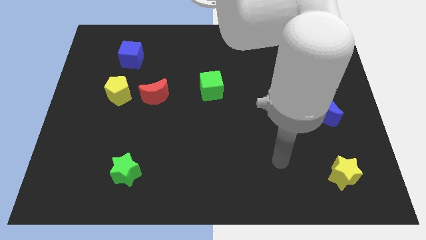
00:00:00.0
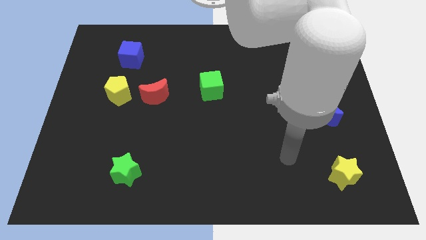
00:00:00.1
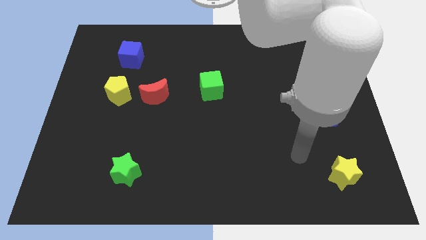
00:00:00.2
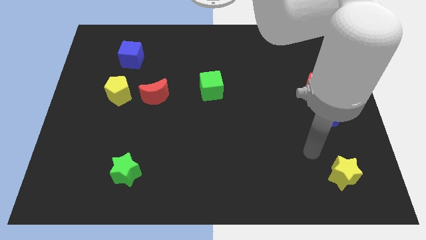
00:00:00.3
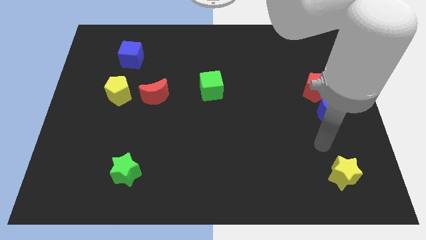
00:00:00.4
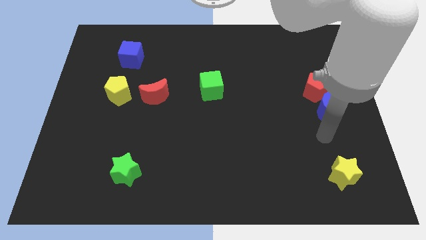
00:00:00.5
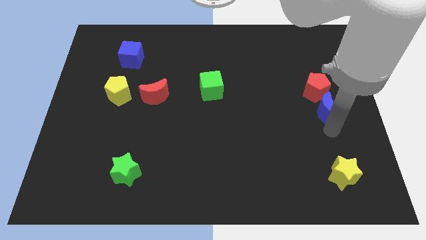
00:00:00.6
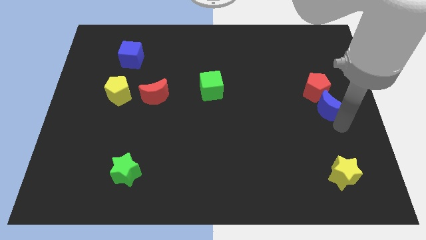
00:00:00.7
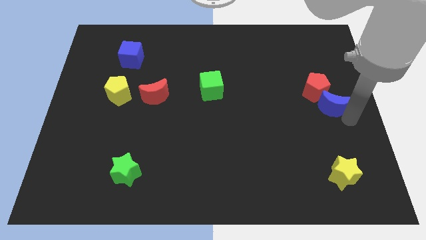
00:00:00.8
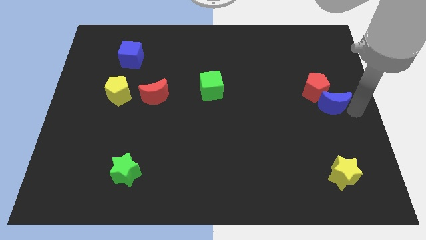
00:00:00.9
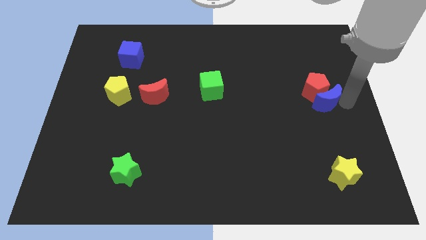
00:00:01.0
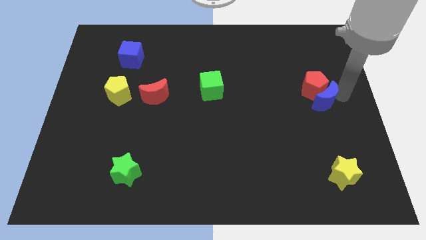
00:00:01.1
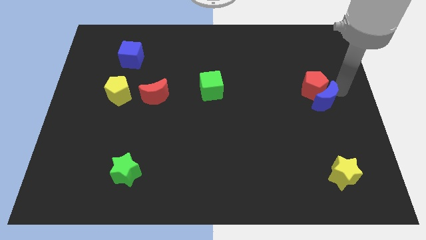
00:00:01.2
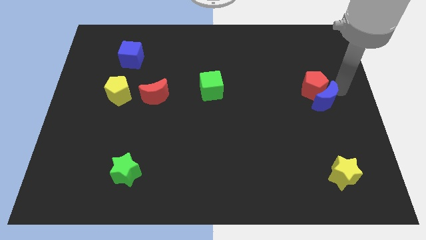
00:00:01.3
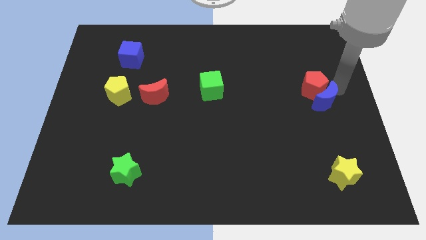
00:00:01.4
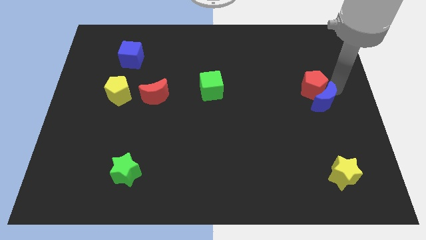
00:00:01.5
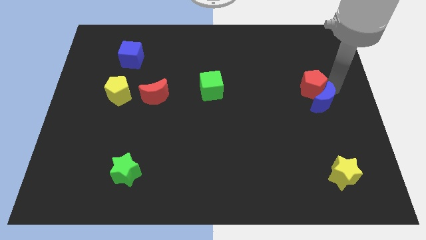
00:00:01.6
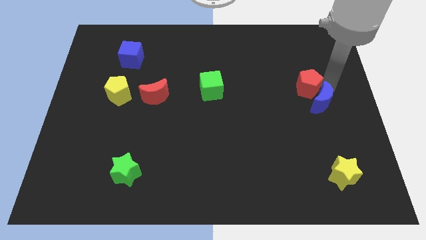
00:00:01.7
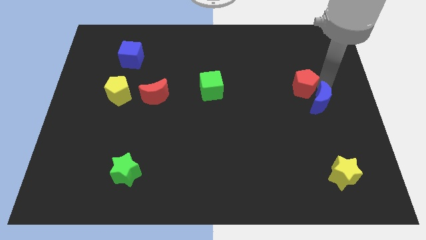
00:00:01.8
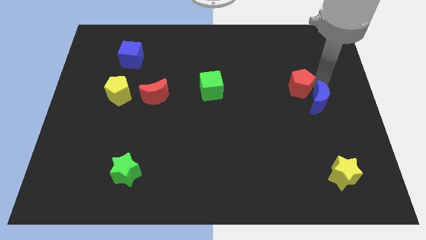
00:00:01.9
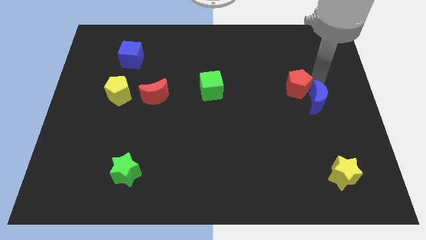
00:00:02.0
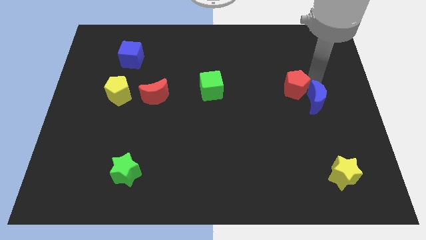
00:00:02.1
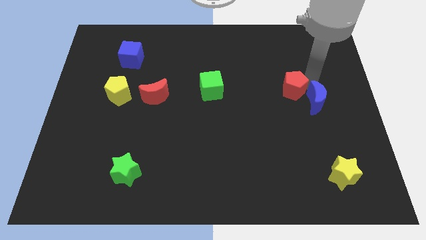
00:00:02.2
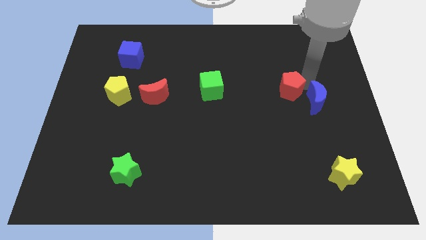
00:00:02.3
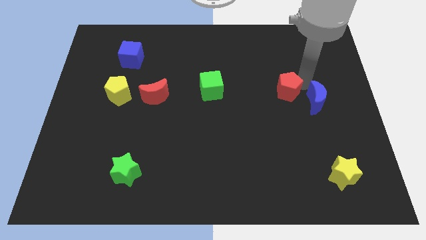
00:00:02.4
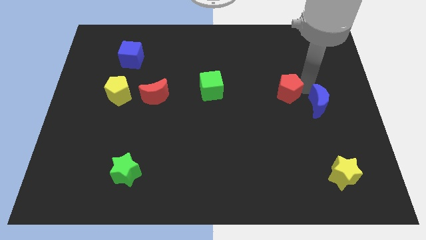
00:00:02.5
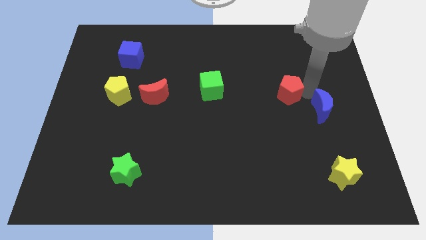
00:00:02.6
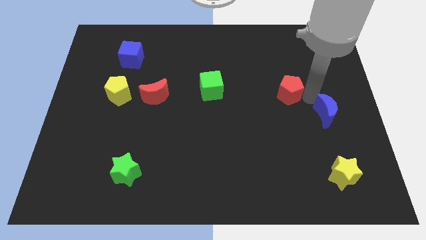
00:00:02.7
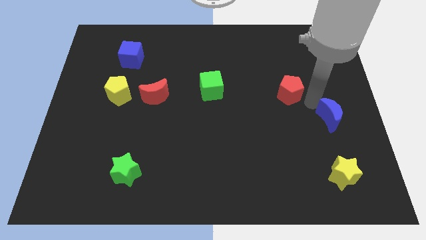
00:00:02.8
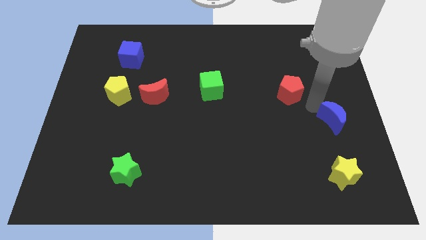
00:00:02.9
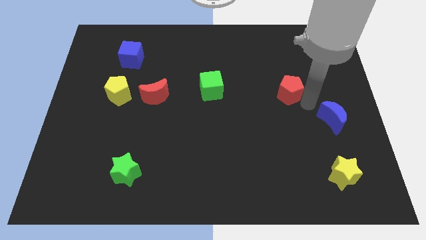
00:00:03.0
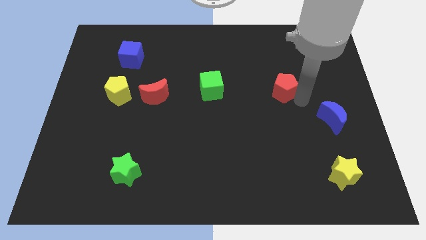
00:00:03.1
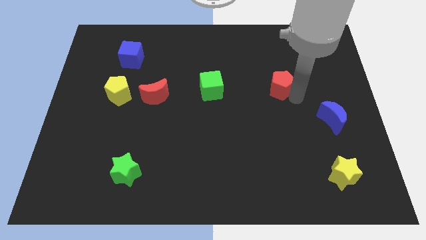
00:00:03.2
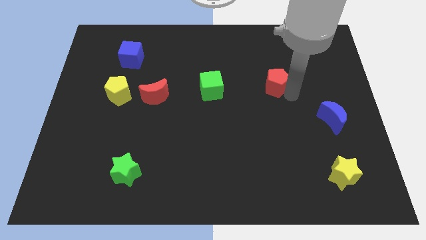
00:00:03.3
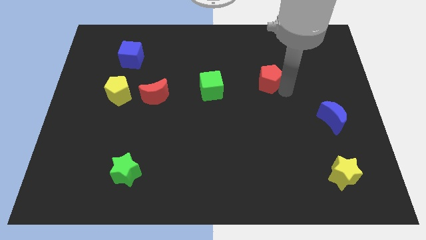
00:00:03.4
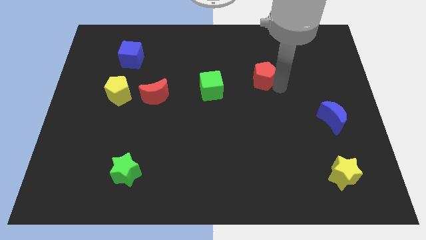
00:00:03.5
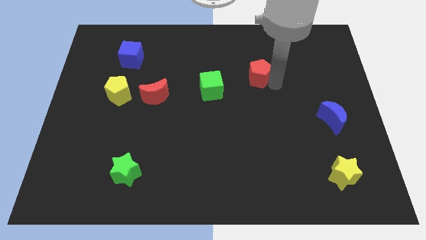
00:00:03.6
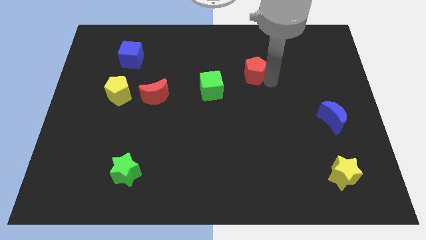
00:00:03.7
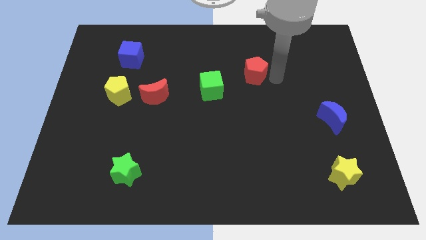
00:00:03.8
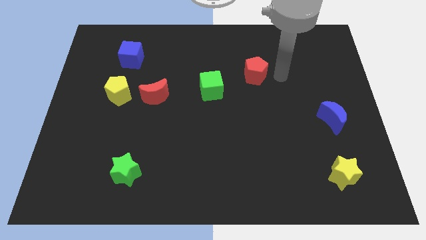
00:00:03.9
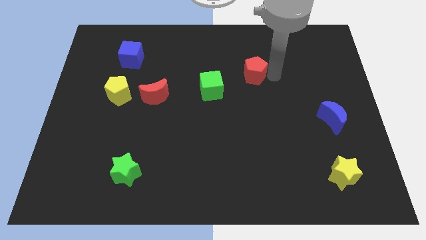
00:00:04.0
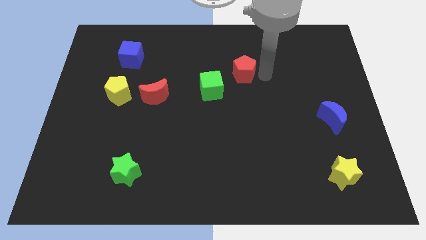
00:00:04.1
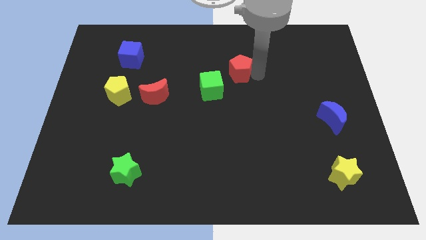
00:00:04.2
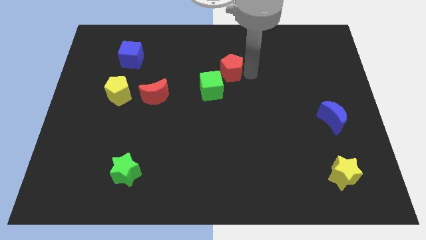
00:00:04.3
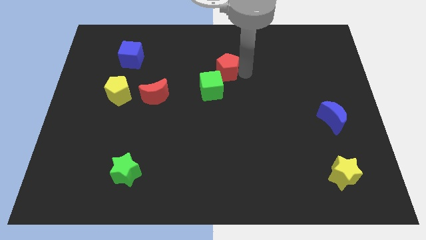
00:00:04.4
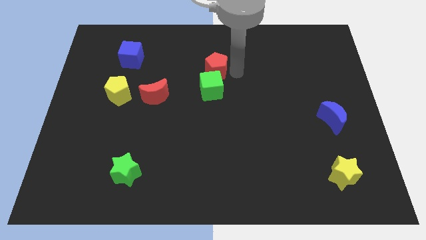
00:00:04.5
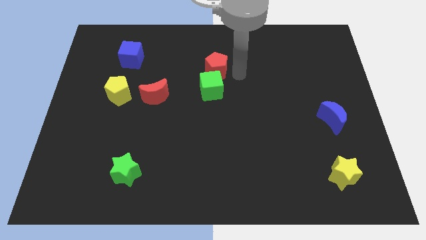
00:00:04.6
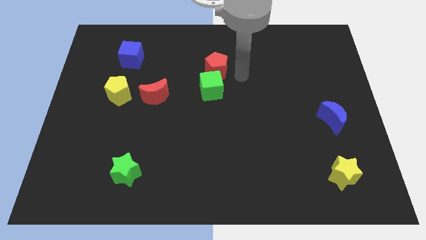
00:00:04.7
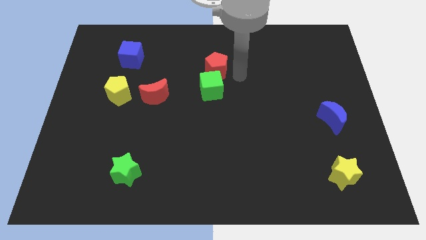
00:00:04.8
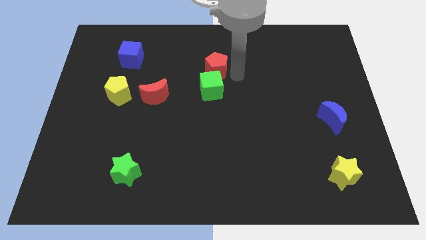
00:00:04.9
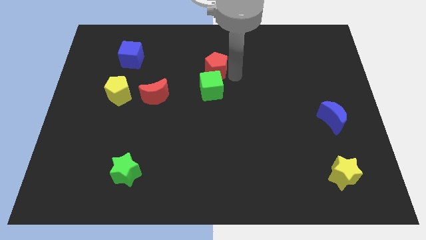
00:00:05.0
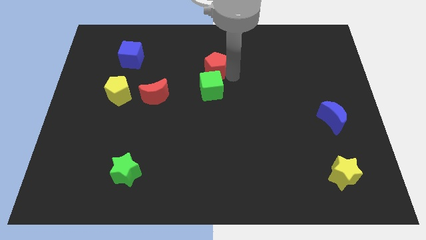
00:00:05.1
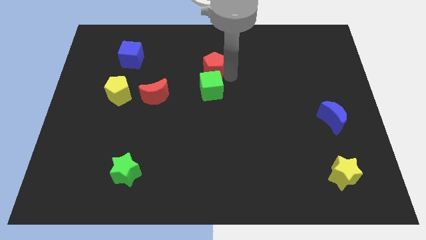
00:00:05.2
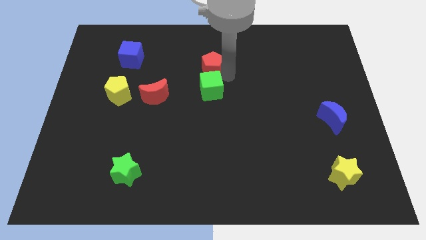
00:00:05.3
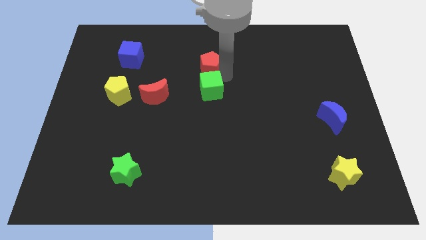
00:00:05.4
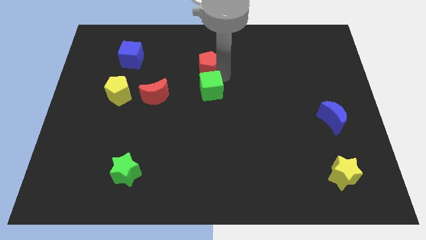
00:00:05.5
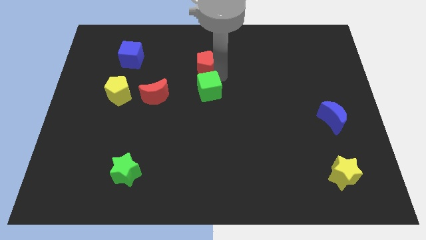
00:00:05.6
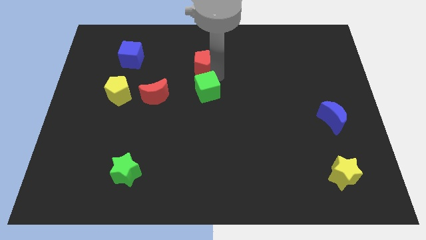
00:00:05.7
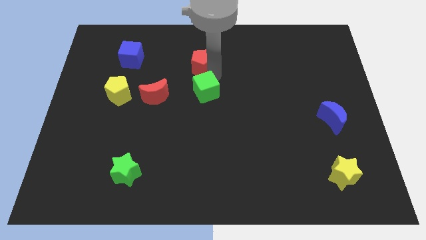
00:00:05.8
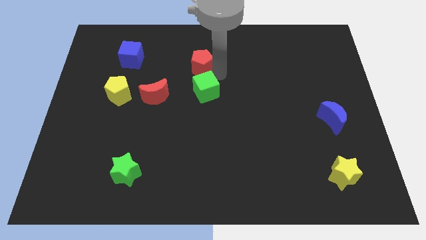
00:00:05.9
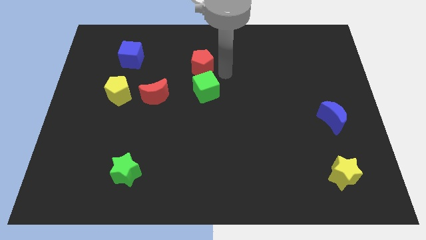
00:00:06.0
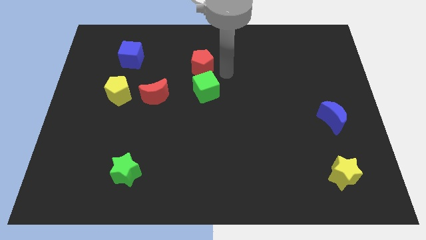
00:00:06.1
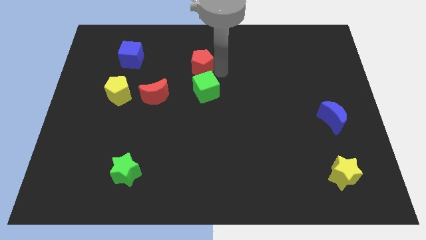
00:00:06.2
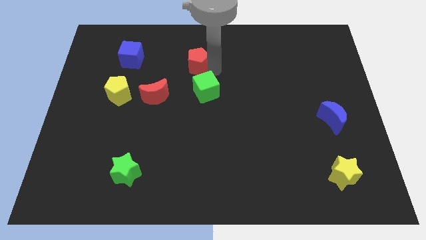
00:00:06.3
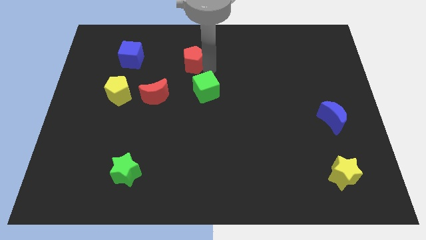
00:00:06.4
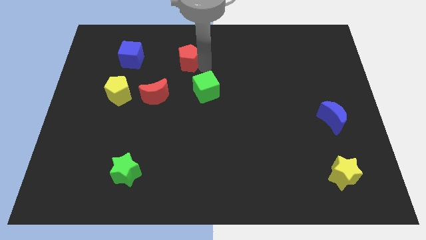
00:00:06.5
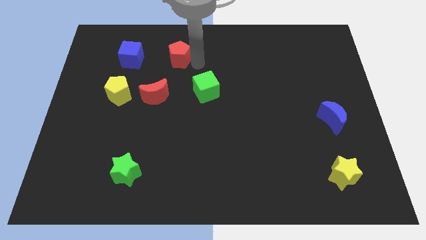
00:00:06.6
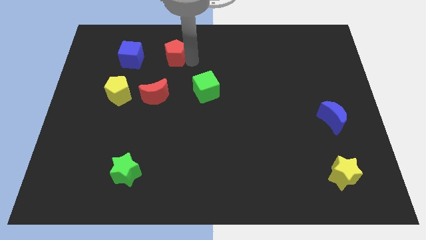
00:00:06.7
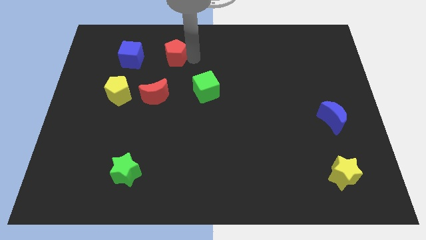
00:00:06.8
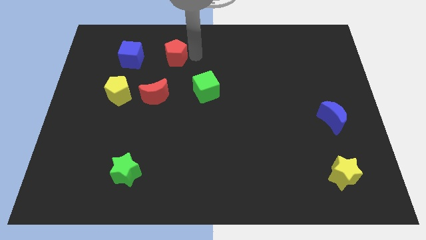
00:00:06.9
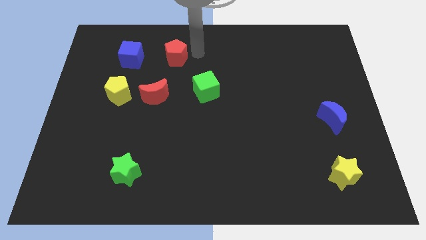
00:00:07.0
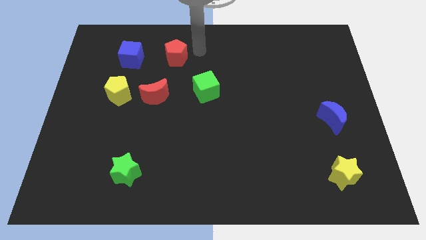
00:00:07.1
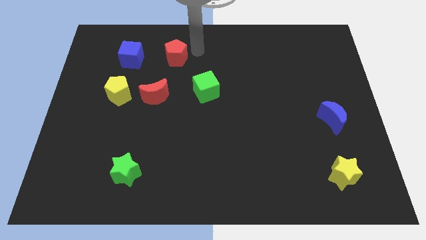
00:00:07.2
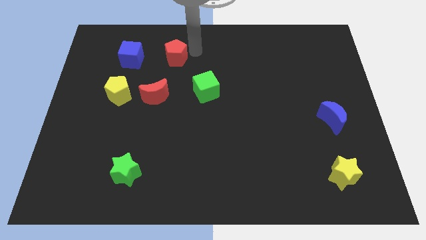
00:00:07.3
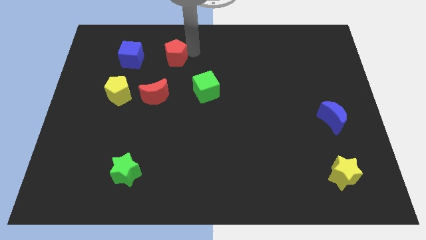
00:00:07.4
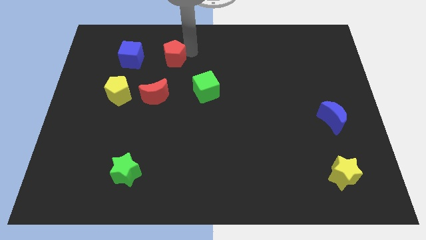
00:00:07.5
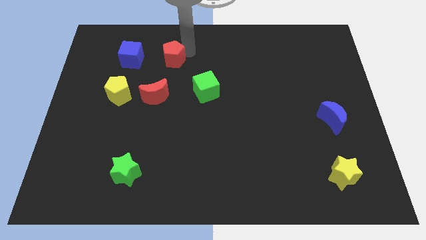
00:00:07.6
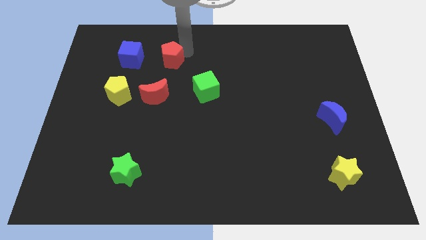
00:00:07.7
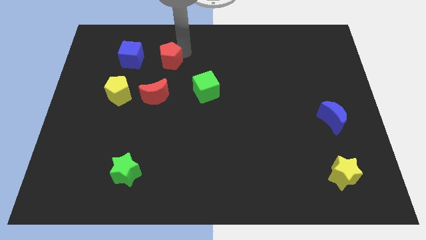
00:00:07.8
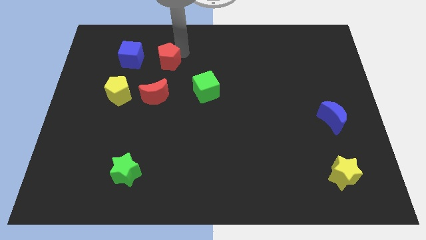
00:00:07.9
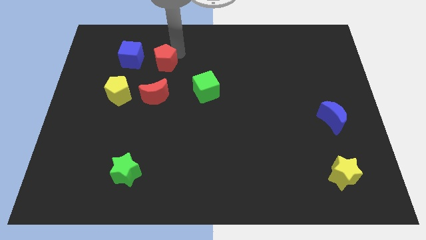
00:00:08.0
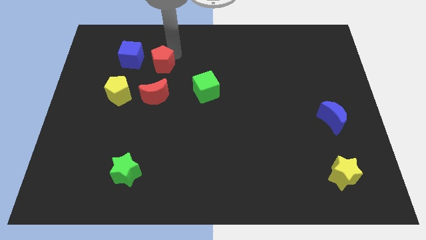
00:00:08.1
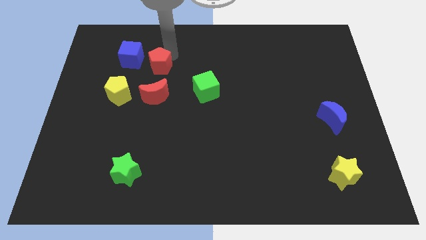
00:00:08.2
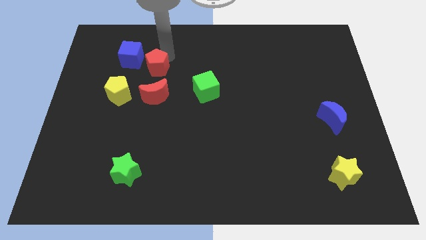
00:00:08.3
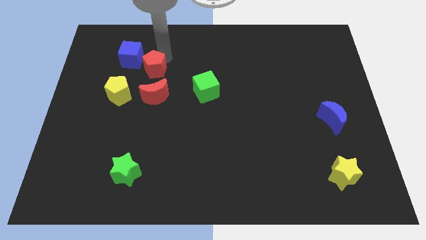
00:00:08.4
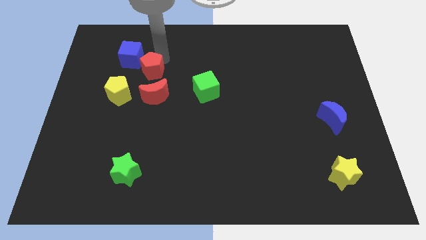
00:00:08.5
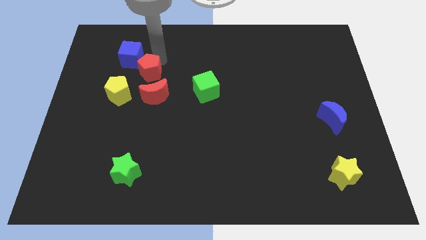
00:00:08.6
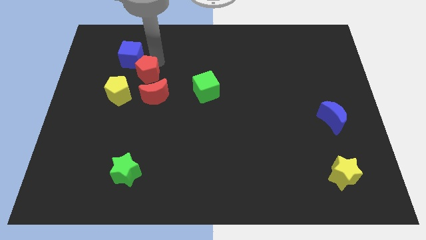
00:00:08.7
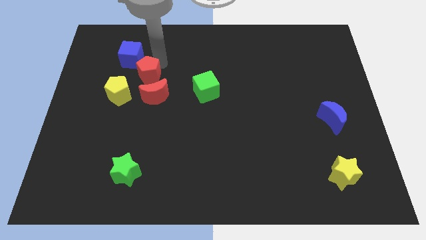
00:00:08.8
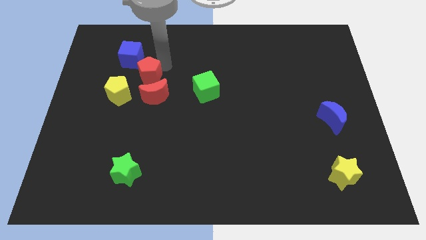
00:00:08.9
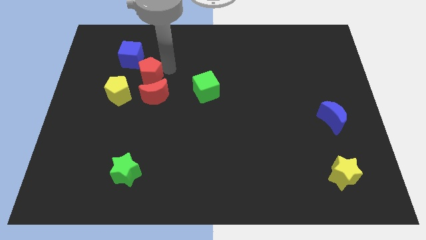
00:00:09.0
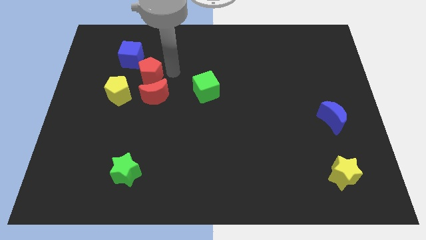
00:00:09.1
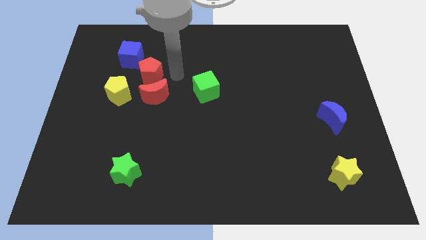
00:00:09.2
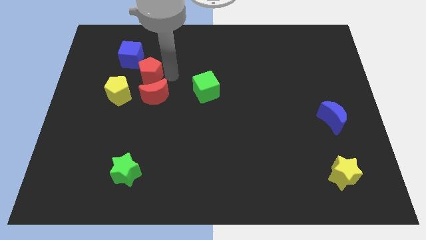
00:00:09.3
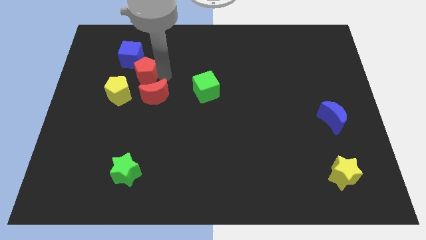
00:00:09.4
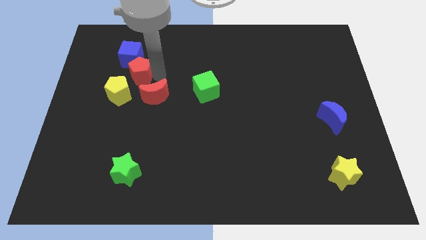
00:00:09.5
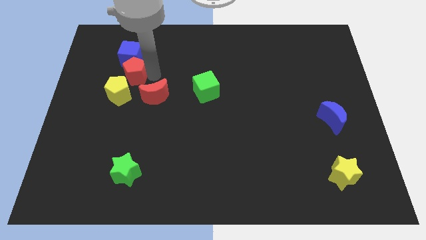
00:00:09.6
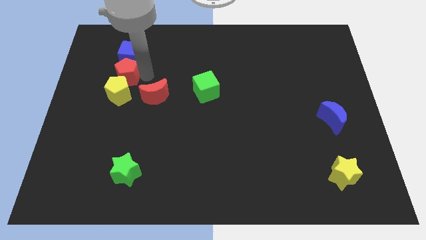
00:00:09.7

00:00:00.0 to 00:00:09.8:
move the red pentagon diagonally down and to the left of the blue cube
